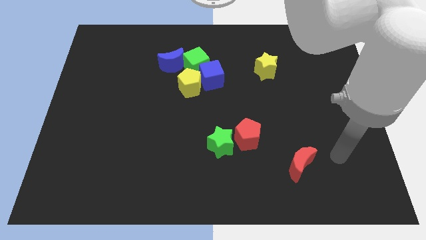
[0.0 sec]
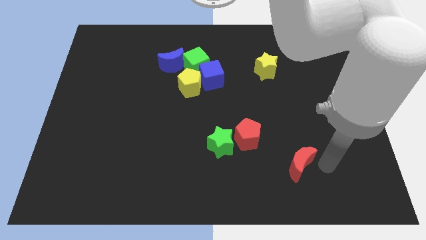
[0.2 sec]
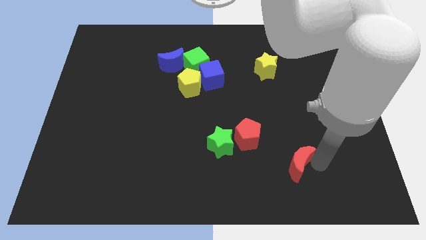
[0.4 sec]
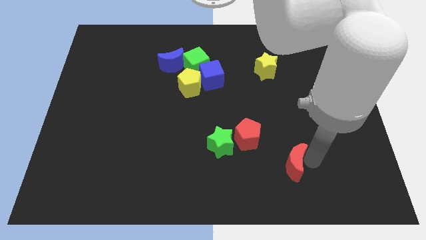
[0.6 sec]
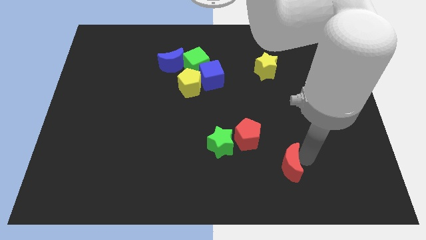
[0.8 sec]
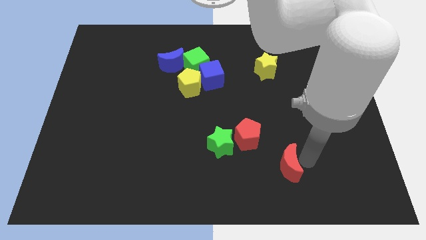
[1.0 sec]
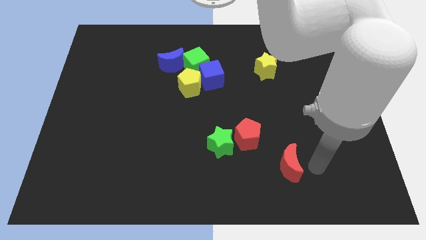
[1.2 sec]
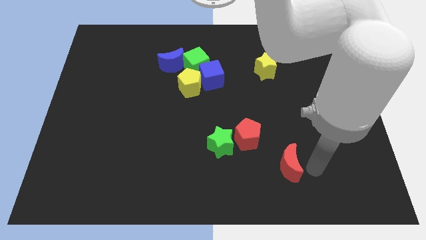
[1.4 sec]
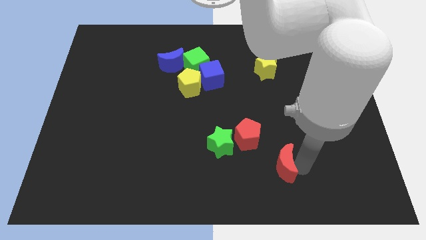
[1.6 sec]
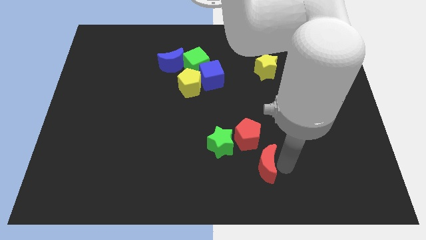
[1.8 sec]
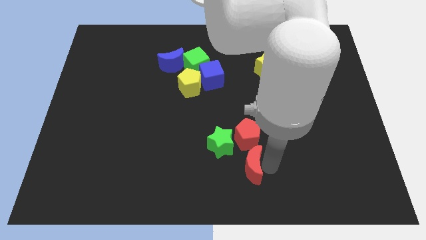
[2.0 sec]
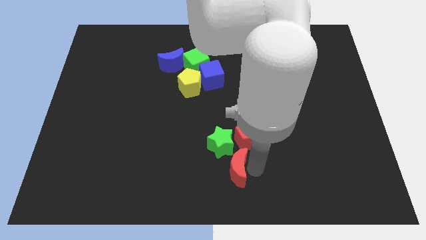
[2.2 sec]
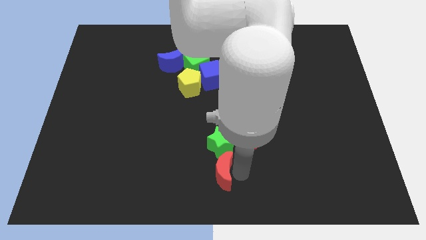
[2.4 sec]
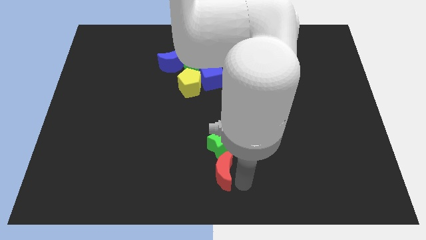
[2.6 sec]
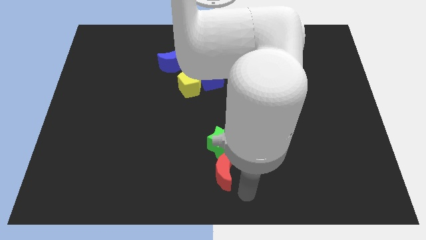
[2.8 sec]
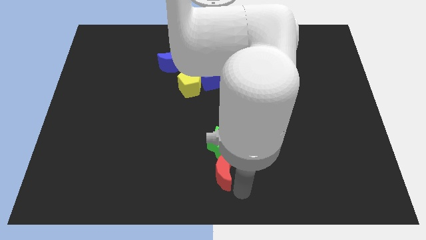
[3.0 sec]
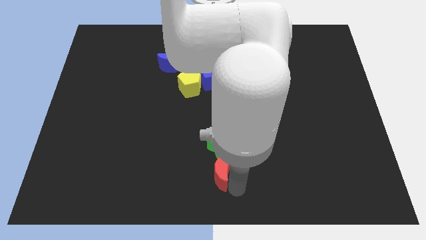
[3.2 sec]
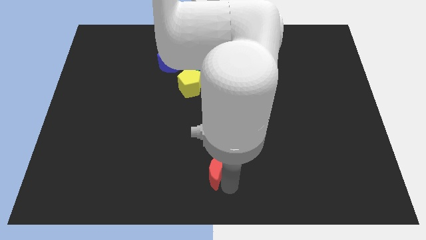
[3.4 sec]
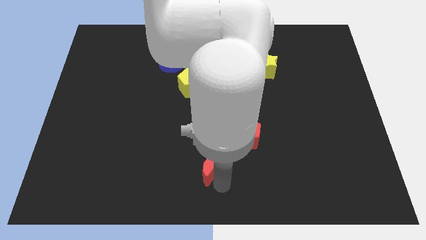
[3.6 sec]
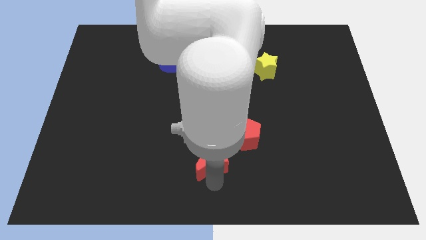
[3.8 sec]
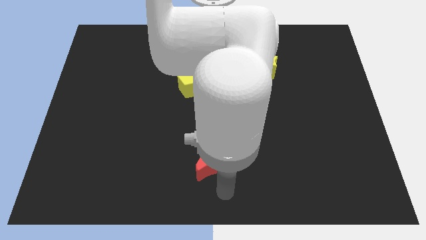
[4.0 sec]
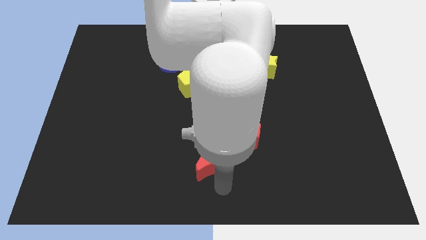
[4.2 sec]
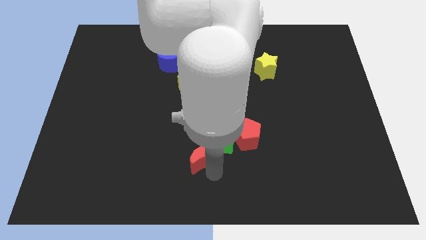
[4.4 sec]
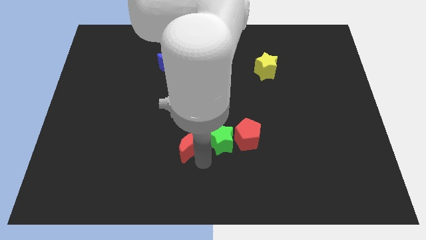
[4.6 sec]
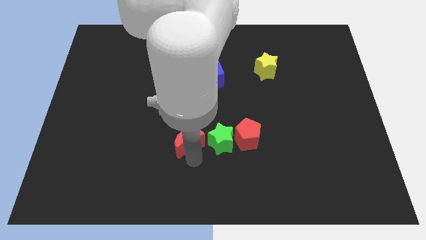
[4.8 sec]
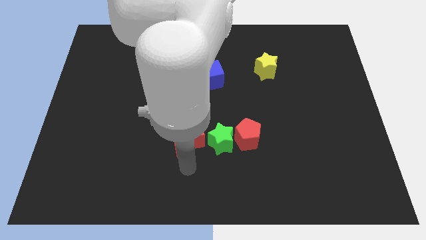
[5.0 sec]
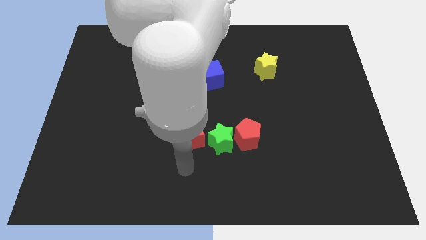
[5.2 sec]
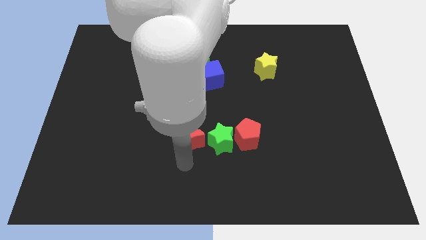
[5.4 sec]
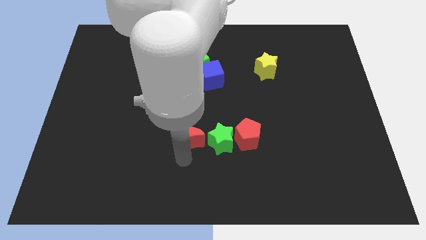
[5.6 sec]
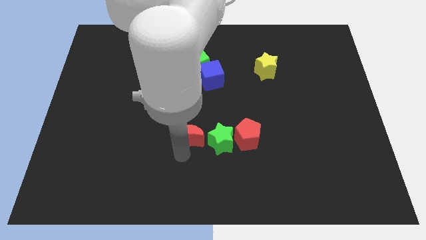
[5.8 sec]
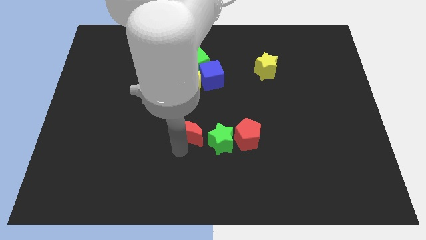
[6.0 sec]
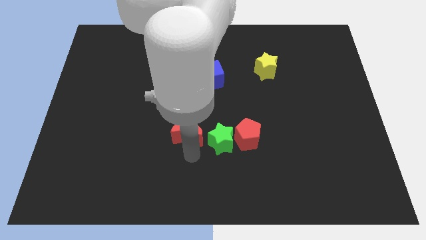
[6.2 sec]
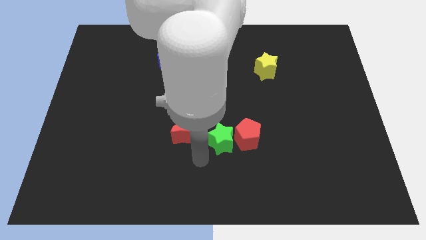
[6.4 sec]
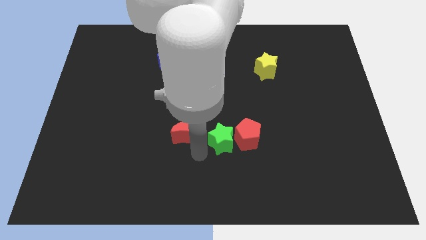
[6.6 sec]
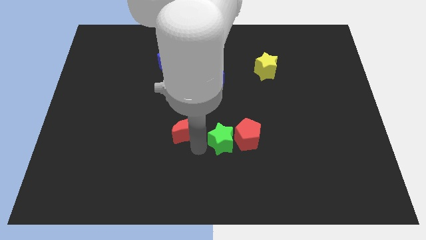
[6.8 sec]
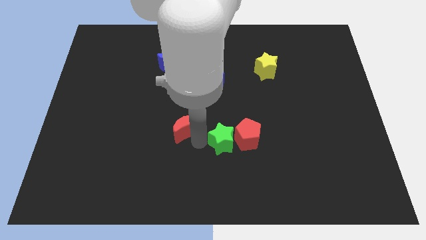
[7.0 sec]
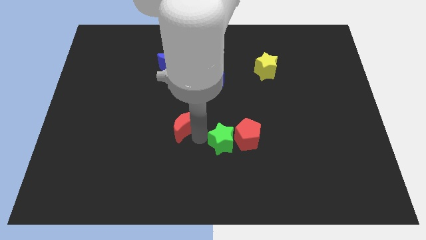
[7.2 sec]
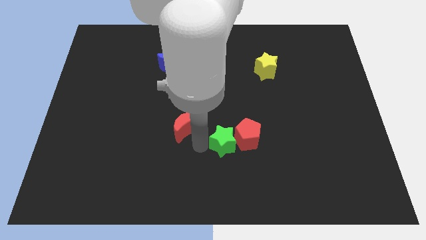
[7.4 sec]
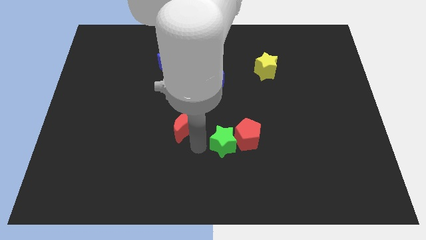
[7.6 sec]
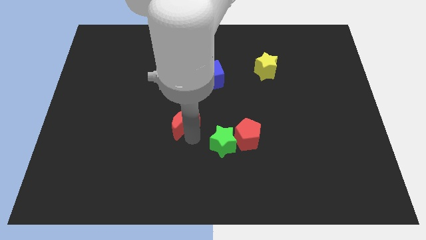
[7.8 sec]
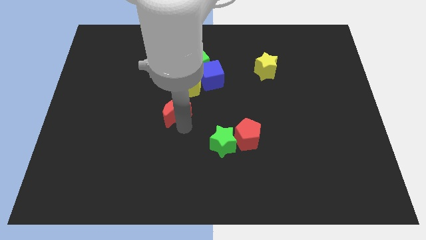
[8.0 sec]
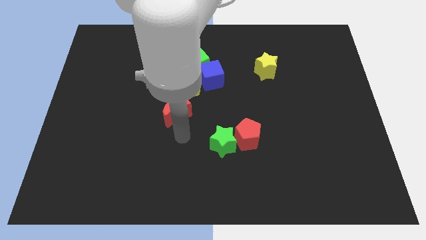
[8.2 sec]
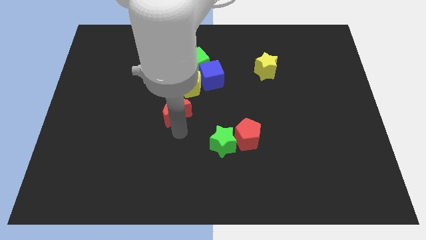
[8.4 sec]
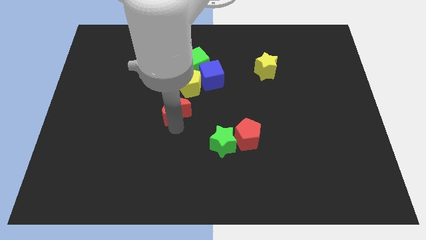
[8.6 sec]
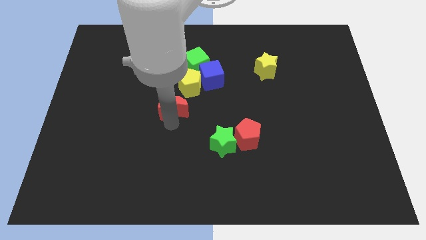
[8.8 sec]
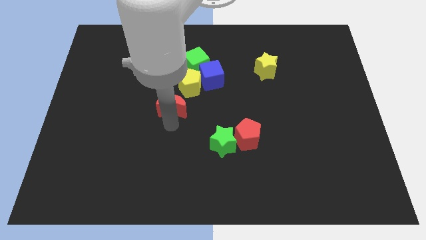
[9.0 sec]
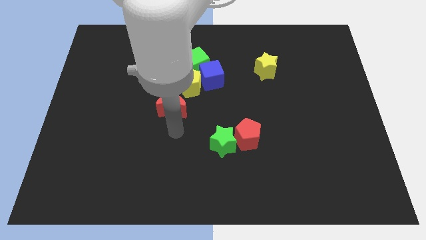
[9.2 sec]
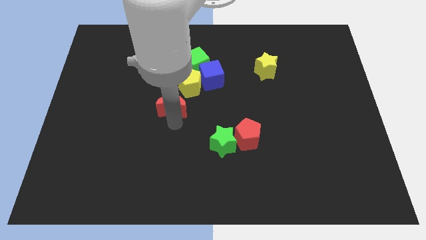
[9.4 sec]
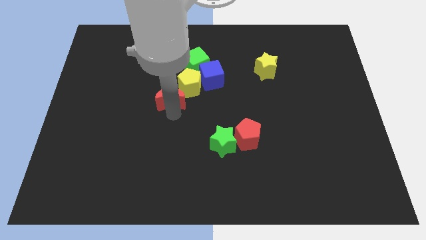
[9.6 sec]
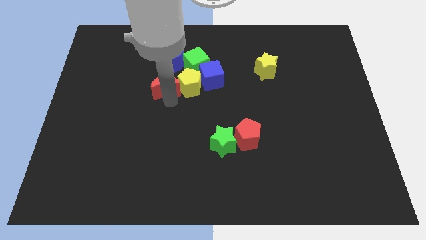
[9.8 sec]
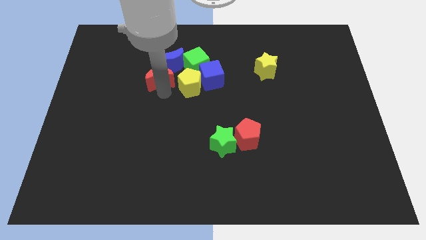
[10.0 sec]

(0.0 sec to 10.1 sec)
move the red moon to the blue moon

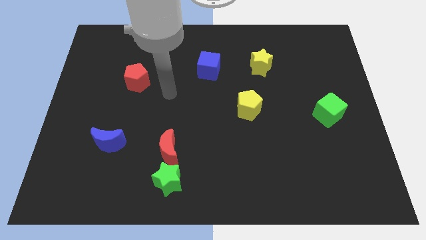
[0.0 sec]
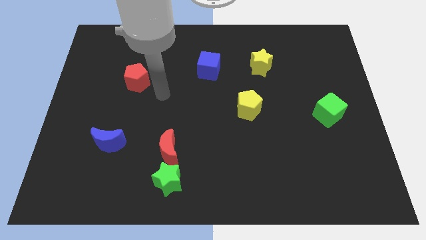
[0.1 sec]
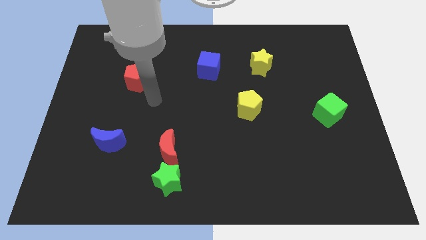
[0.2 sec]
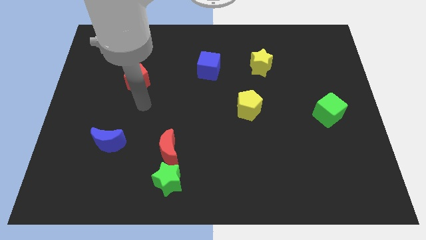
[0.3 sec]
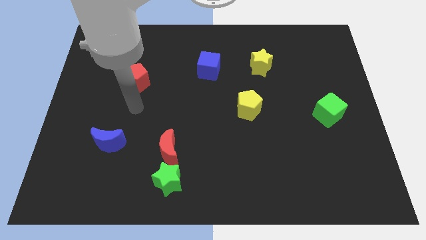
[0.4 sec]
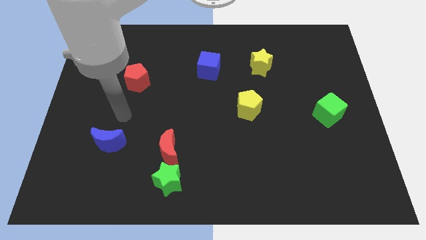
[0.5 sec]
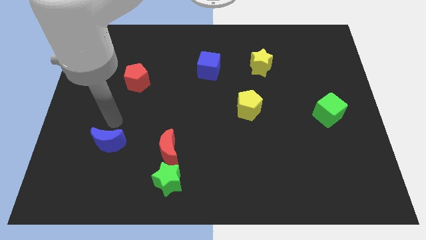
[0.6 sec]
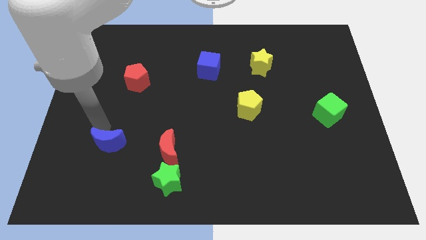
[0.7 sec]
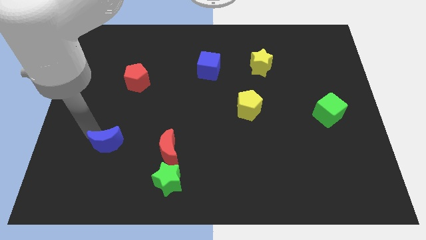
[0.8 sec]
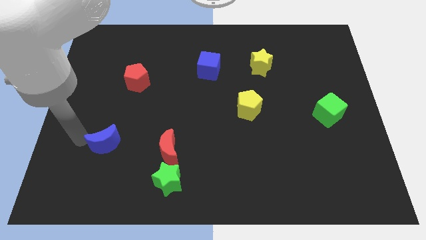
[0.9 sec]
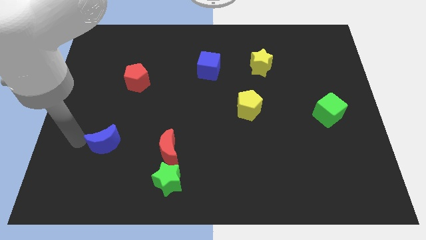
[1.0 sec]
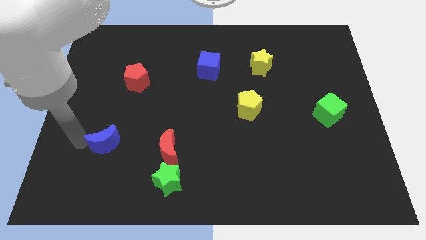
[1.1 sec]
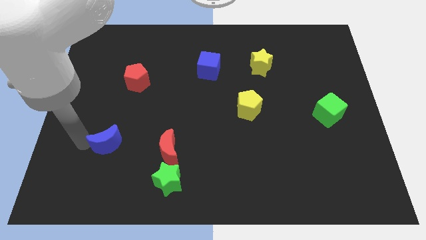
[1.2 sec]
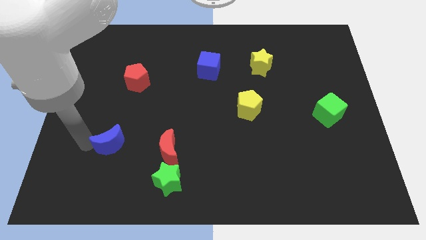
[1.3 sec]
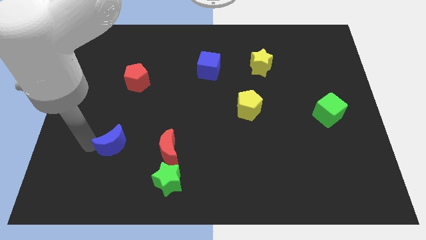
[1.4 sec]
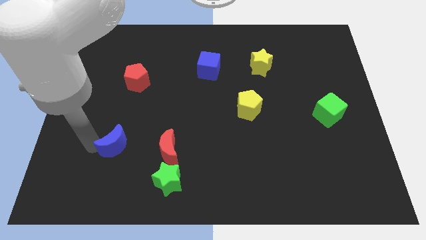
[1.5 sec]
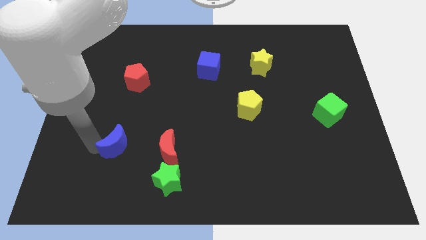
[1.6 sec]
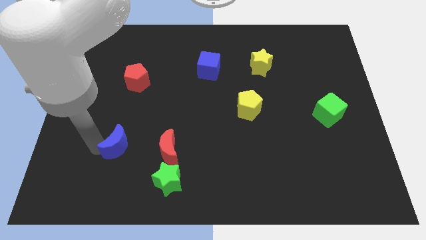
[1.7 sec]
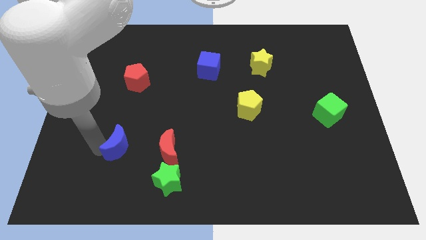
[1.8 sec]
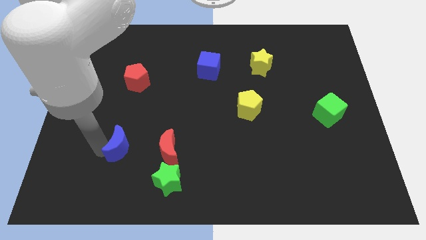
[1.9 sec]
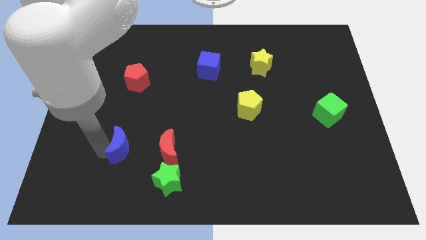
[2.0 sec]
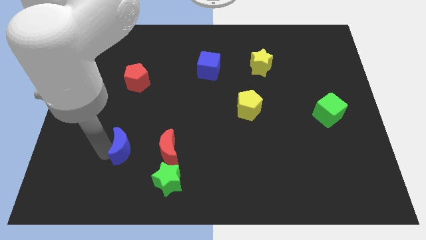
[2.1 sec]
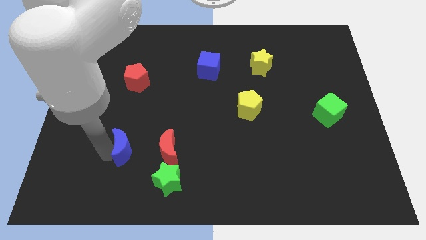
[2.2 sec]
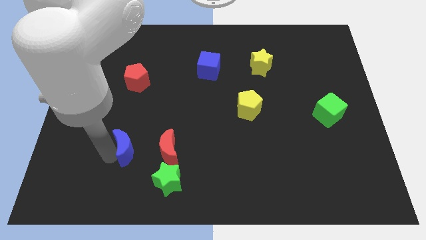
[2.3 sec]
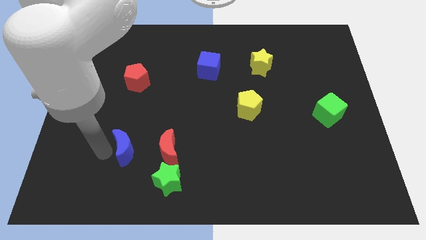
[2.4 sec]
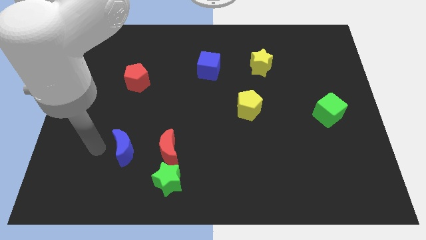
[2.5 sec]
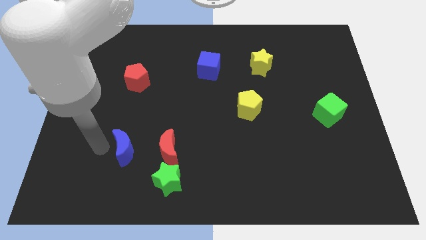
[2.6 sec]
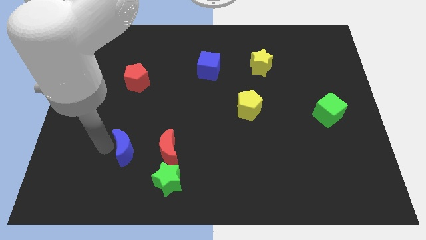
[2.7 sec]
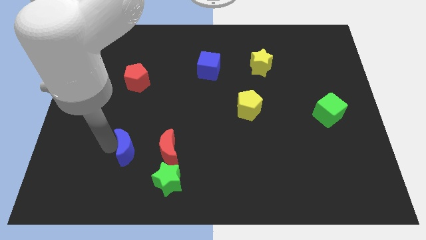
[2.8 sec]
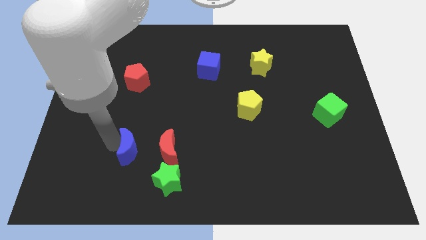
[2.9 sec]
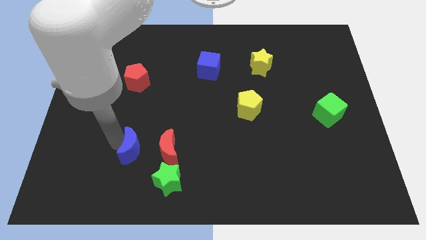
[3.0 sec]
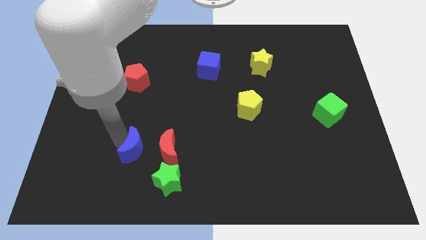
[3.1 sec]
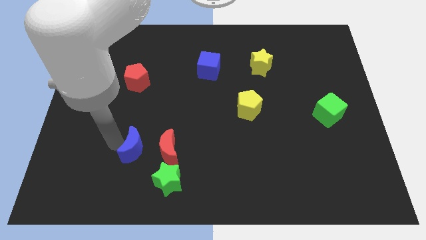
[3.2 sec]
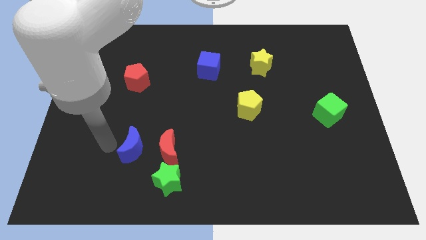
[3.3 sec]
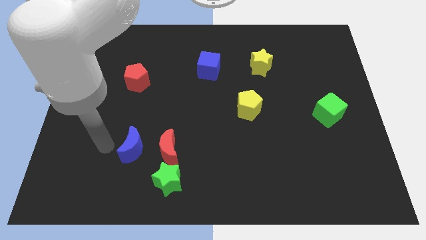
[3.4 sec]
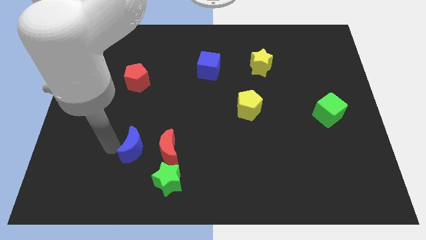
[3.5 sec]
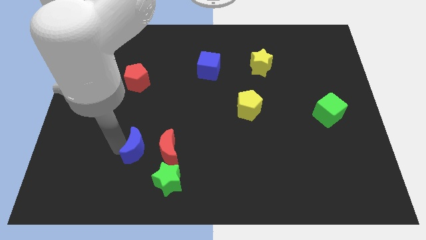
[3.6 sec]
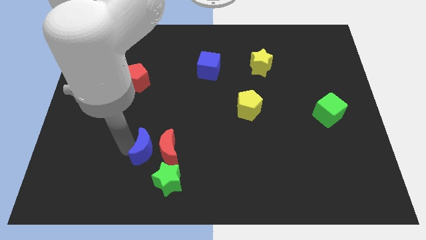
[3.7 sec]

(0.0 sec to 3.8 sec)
slide the blue moon towards the red moon
